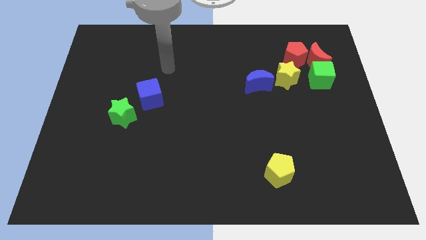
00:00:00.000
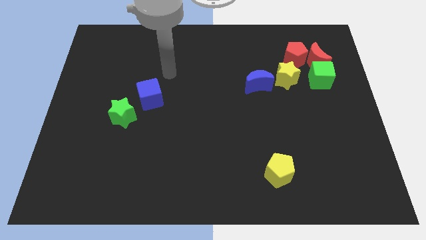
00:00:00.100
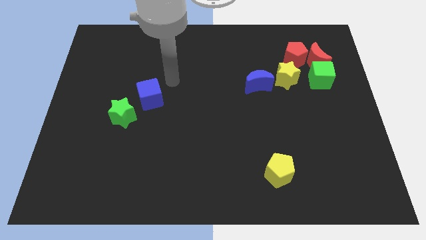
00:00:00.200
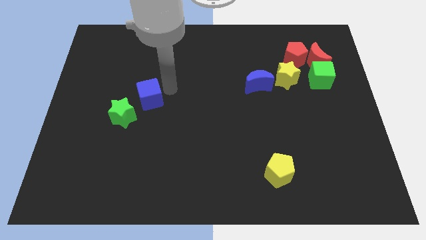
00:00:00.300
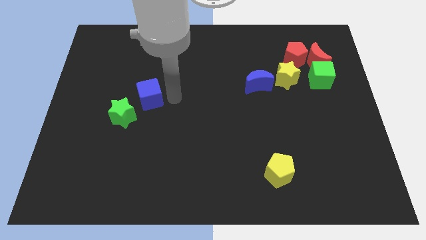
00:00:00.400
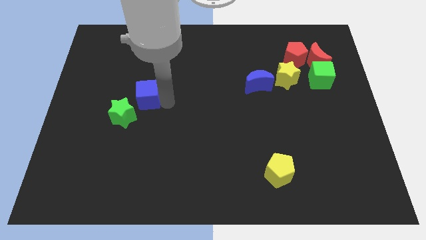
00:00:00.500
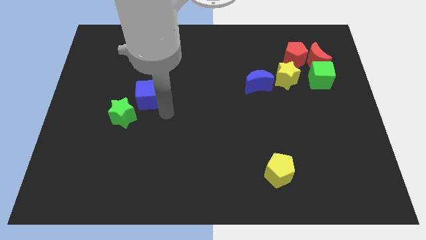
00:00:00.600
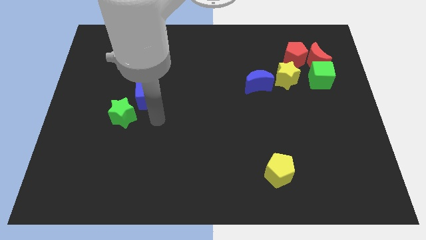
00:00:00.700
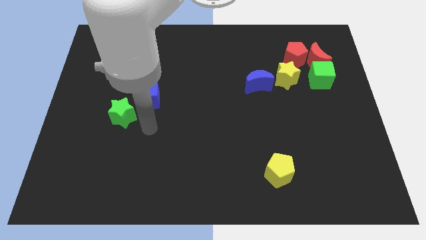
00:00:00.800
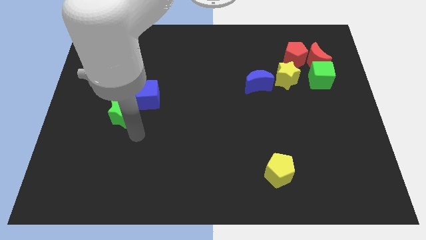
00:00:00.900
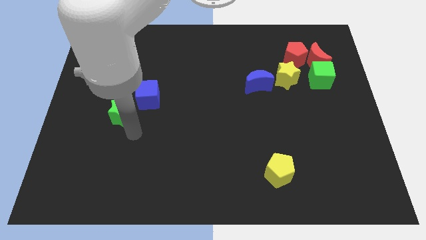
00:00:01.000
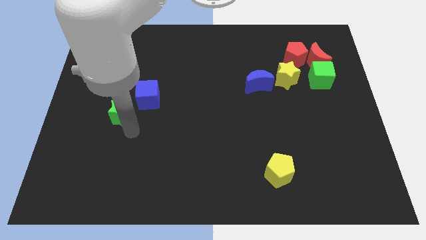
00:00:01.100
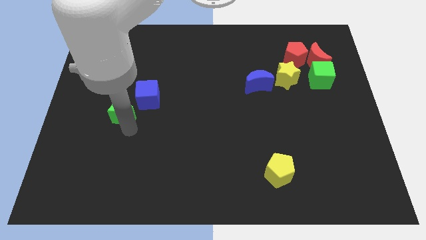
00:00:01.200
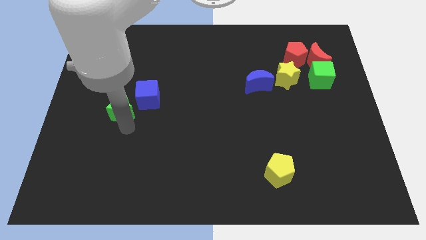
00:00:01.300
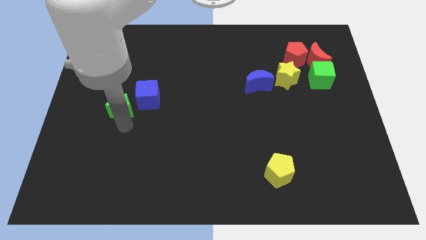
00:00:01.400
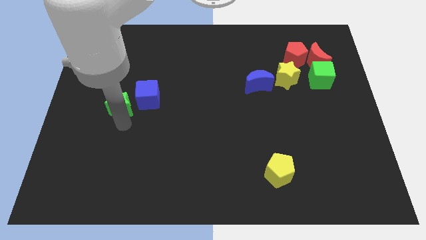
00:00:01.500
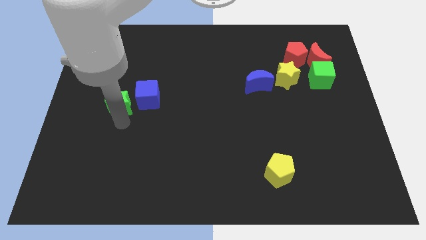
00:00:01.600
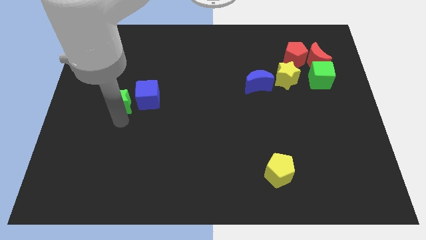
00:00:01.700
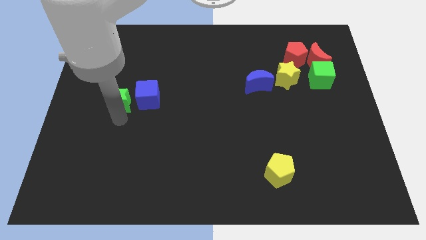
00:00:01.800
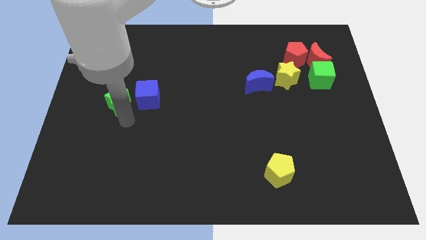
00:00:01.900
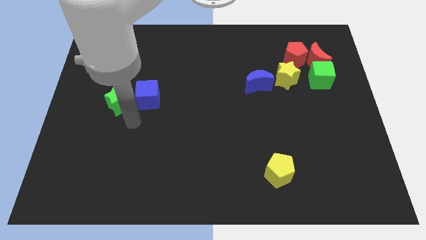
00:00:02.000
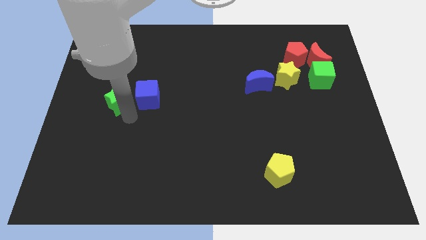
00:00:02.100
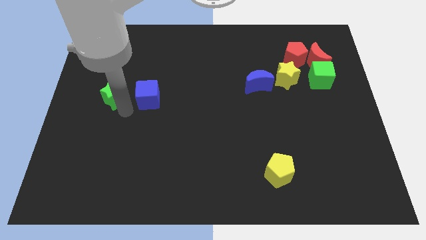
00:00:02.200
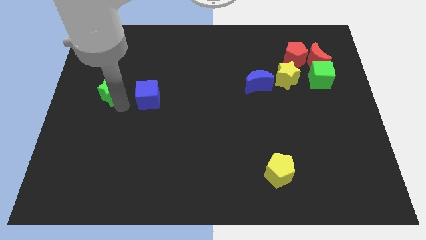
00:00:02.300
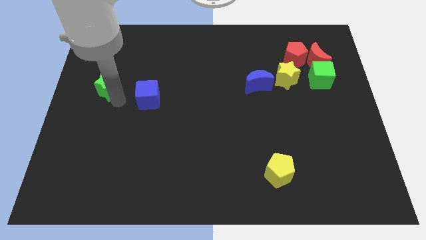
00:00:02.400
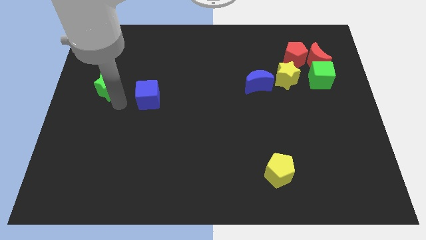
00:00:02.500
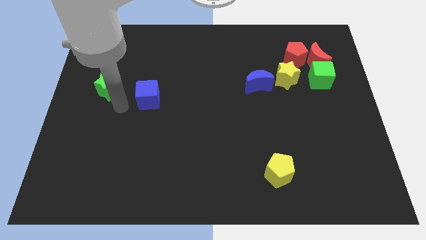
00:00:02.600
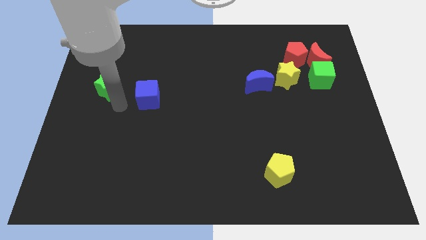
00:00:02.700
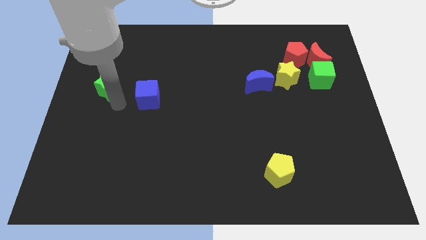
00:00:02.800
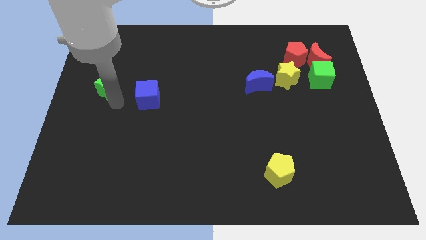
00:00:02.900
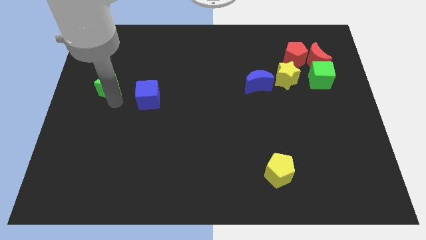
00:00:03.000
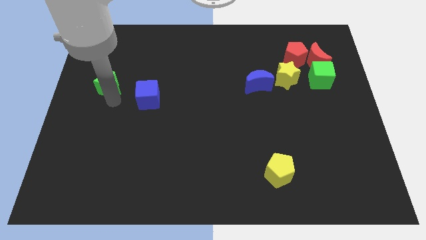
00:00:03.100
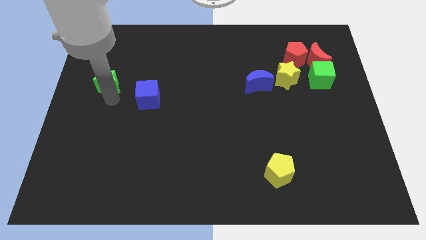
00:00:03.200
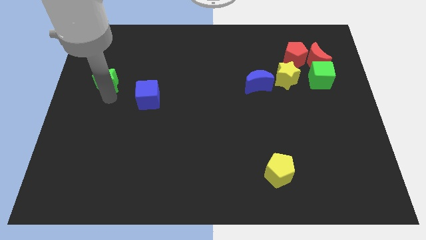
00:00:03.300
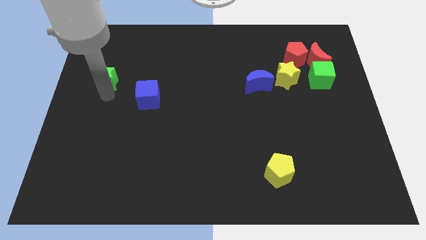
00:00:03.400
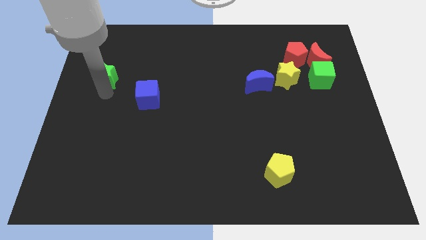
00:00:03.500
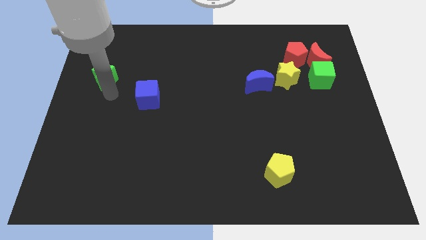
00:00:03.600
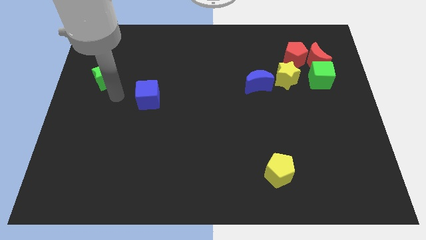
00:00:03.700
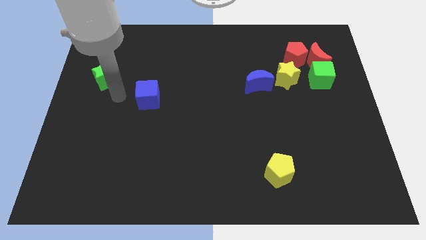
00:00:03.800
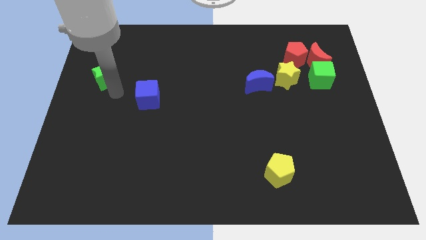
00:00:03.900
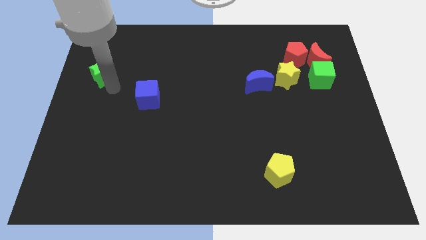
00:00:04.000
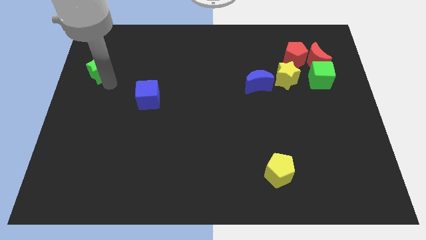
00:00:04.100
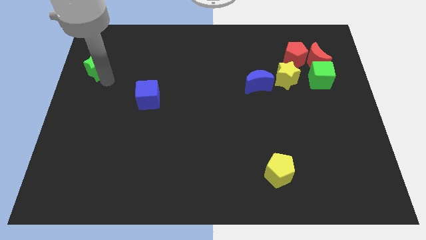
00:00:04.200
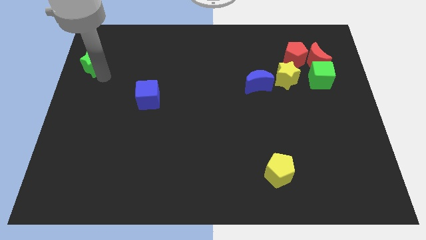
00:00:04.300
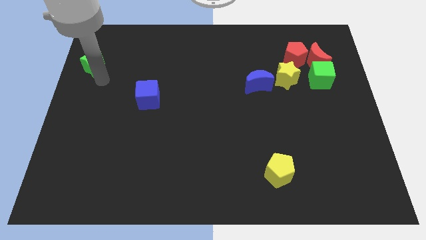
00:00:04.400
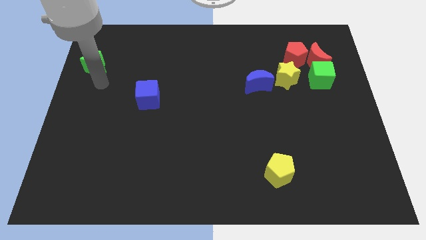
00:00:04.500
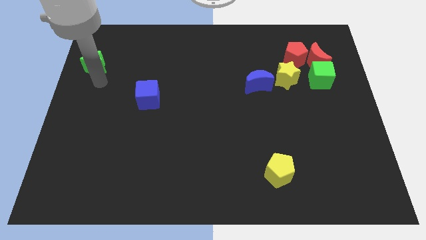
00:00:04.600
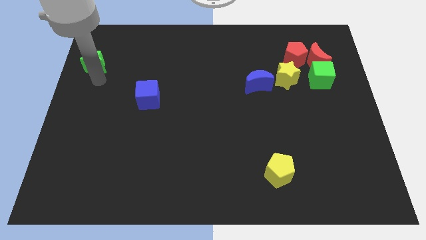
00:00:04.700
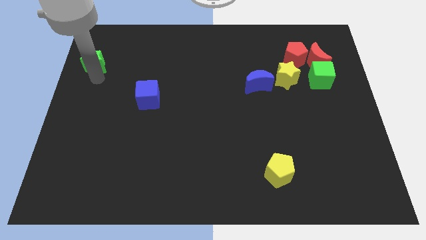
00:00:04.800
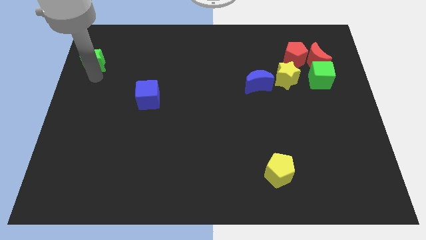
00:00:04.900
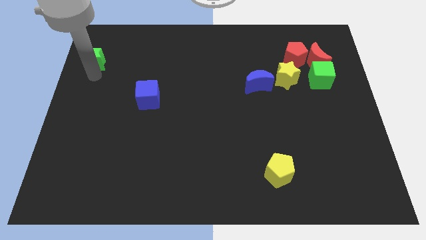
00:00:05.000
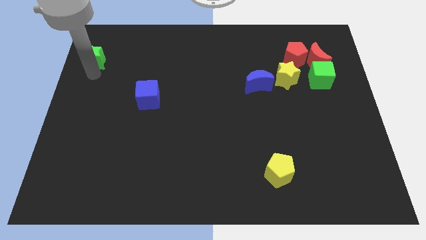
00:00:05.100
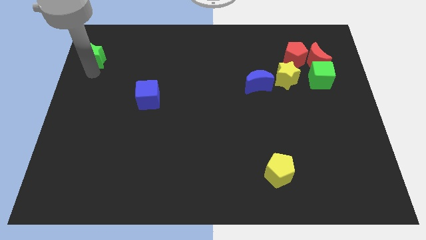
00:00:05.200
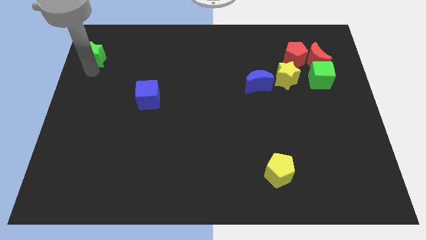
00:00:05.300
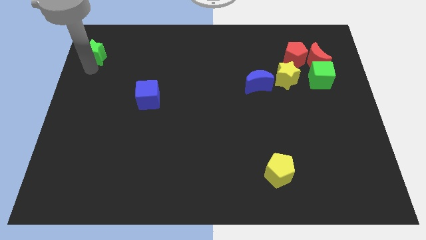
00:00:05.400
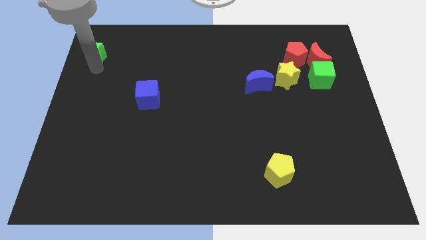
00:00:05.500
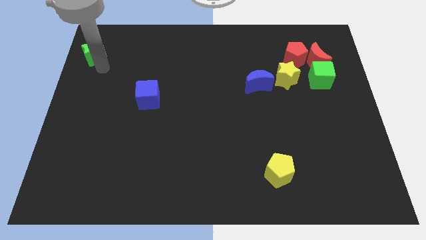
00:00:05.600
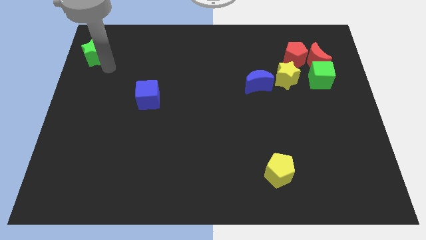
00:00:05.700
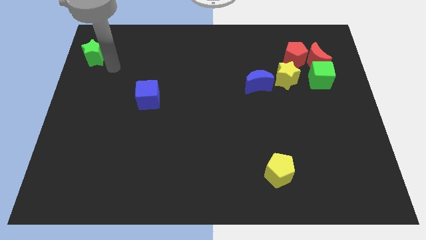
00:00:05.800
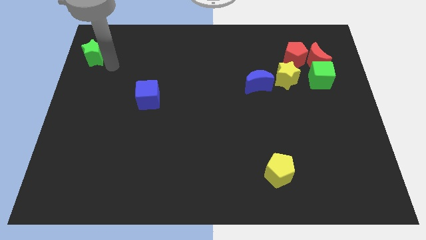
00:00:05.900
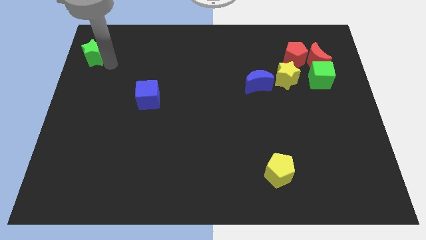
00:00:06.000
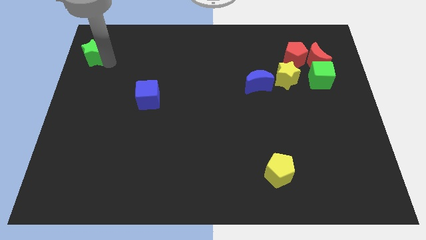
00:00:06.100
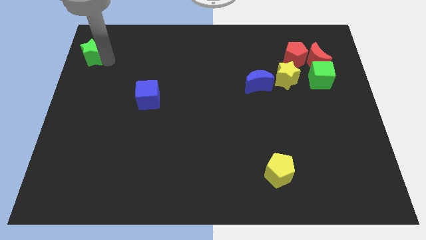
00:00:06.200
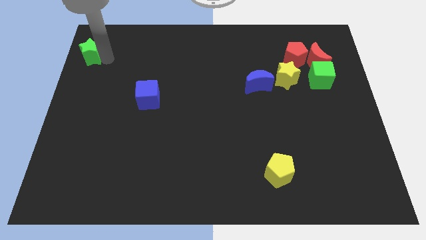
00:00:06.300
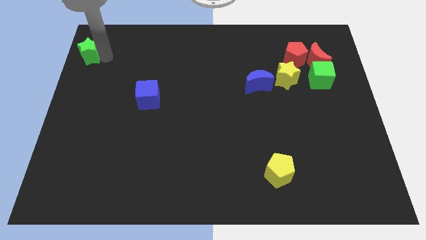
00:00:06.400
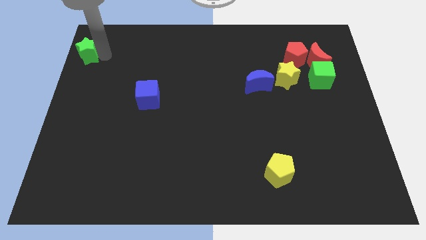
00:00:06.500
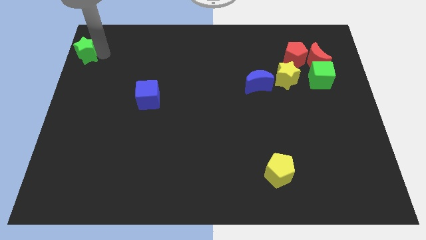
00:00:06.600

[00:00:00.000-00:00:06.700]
put the green star to the top left of the board
